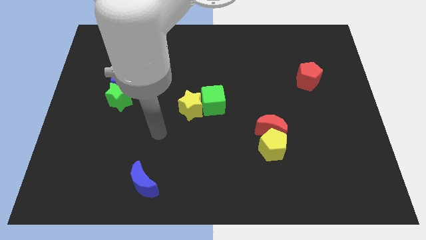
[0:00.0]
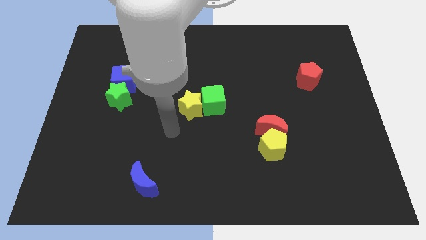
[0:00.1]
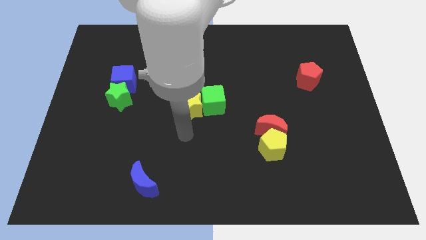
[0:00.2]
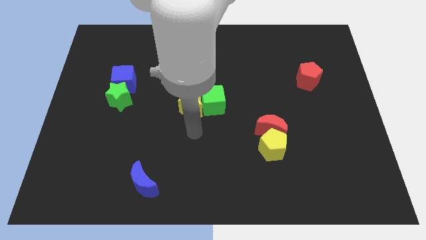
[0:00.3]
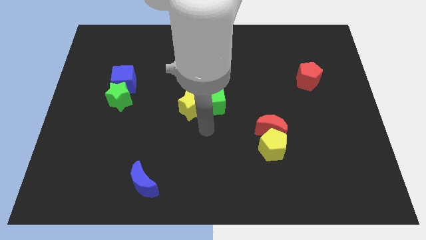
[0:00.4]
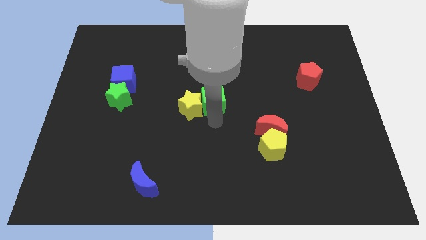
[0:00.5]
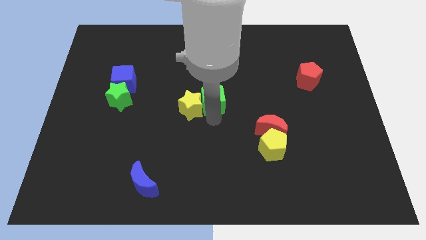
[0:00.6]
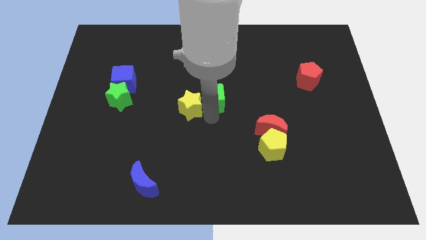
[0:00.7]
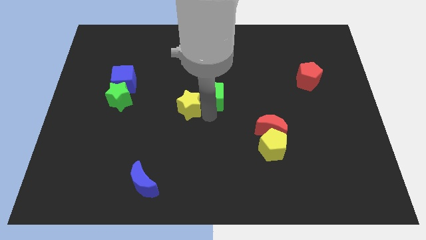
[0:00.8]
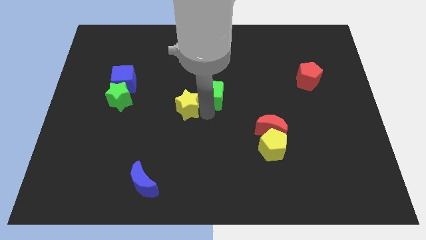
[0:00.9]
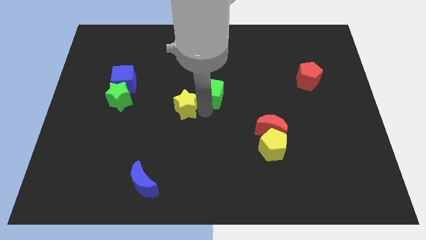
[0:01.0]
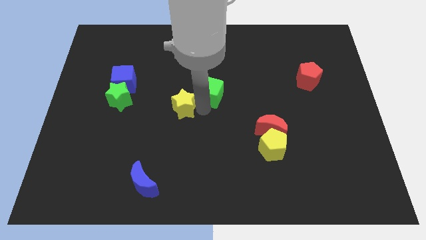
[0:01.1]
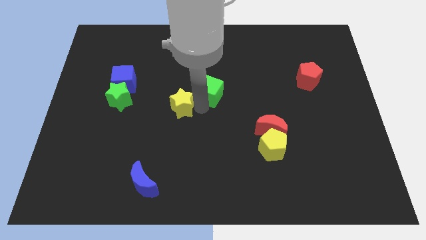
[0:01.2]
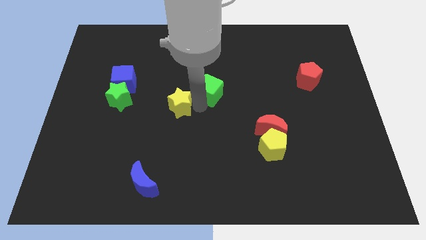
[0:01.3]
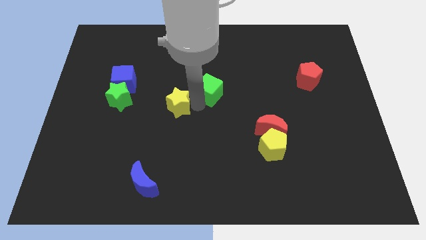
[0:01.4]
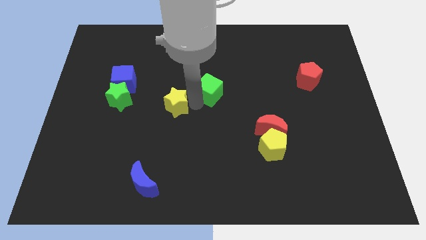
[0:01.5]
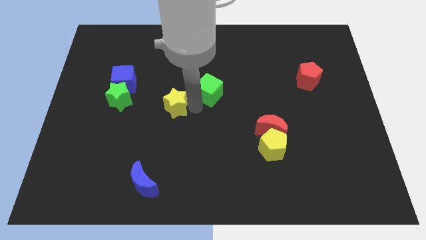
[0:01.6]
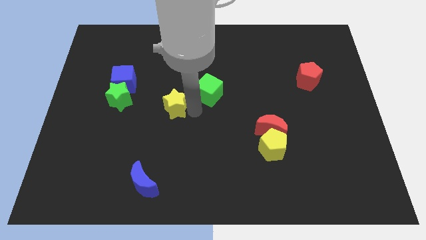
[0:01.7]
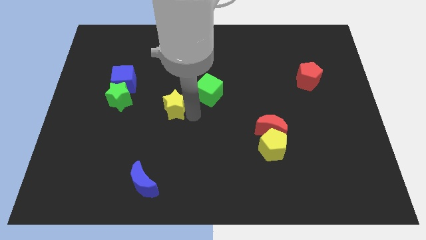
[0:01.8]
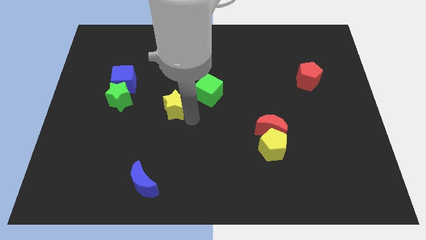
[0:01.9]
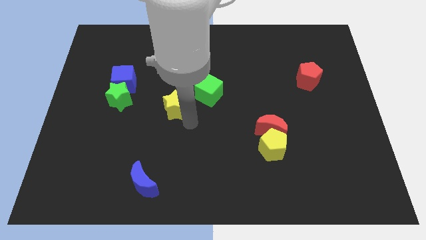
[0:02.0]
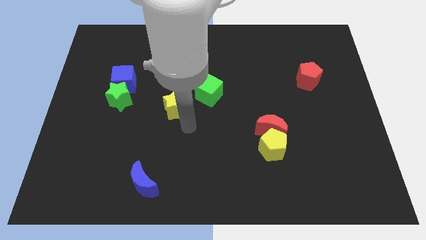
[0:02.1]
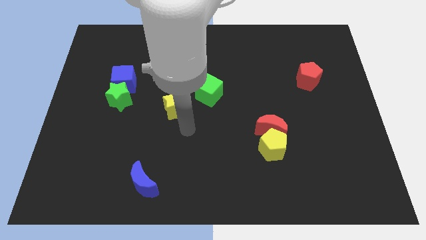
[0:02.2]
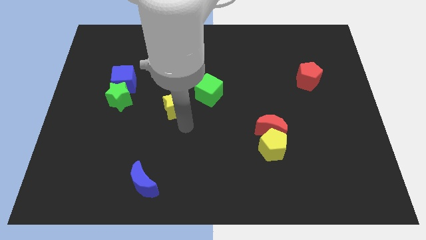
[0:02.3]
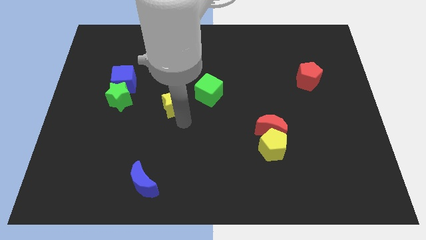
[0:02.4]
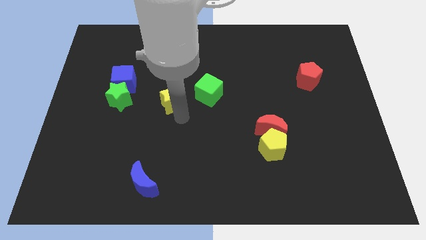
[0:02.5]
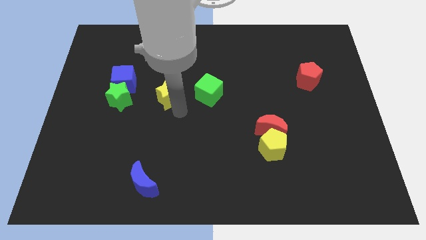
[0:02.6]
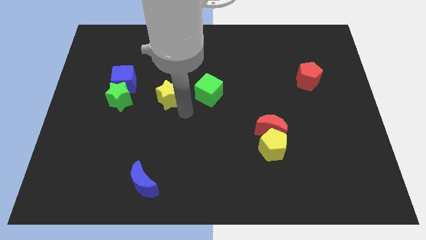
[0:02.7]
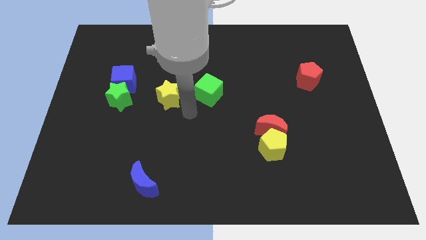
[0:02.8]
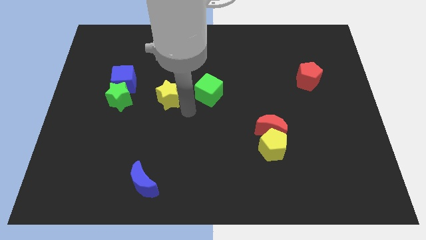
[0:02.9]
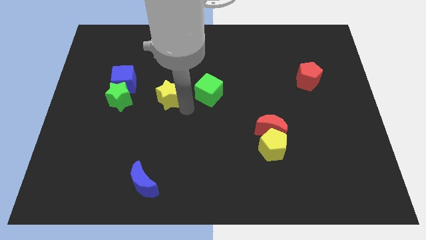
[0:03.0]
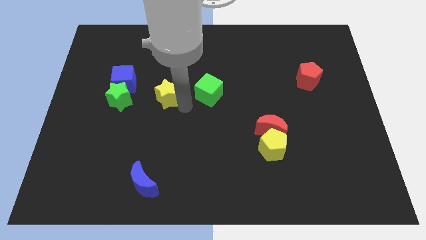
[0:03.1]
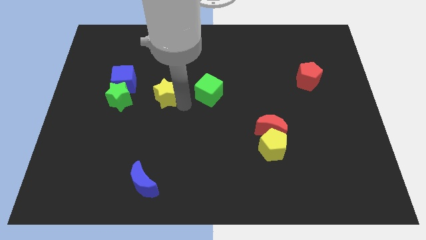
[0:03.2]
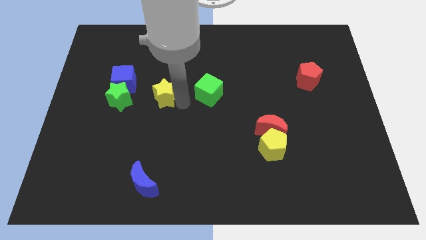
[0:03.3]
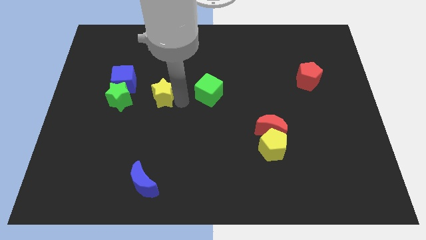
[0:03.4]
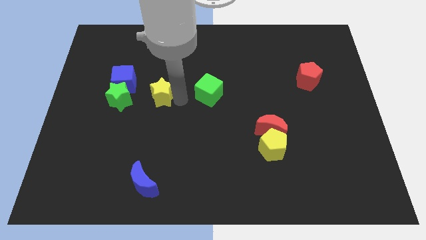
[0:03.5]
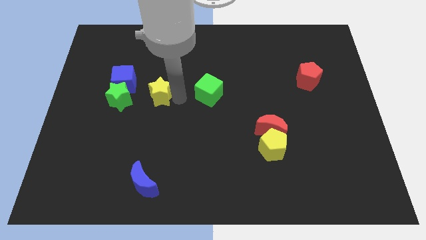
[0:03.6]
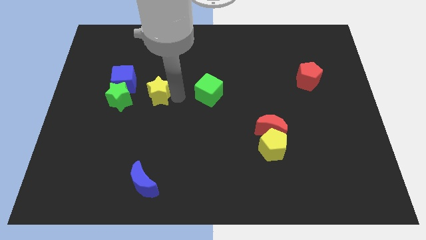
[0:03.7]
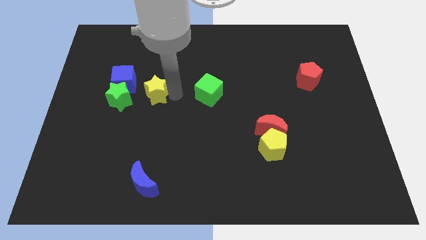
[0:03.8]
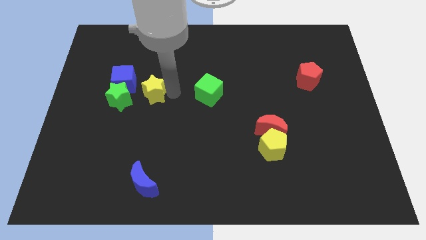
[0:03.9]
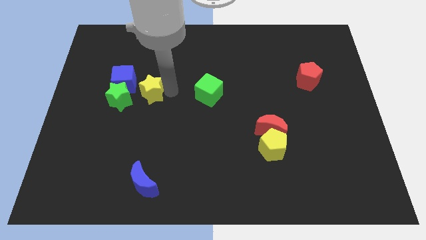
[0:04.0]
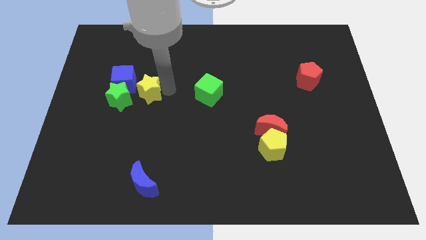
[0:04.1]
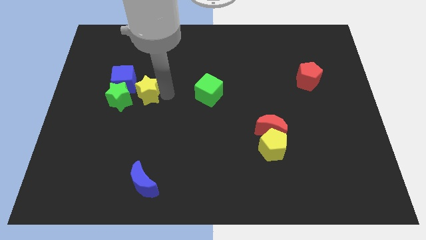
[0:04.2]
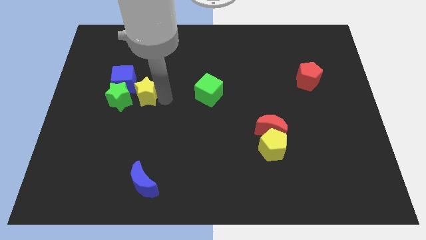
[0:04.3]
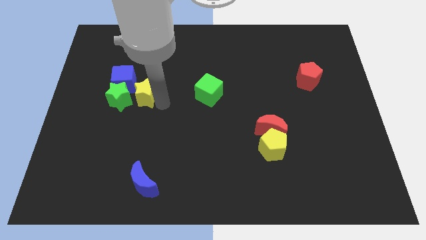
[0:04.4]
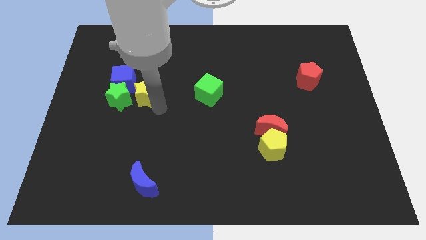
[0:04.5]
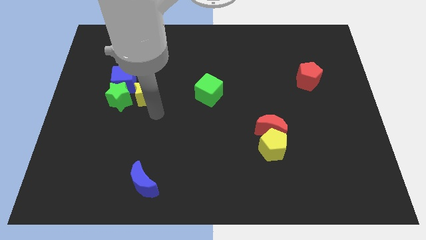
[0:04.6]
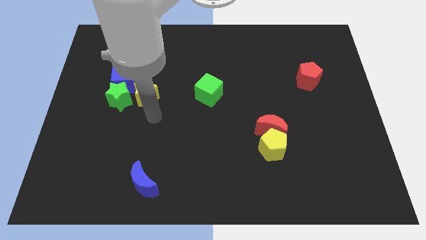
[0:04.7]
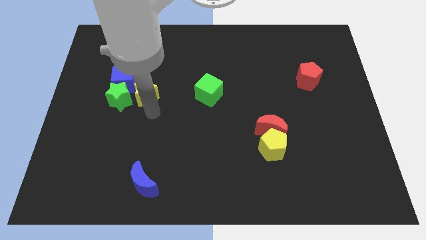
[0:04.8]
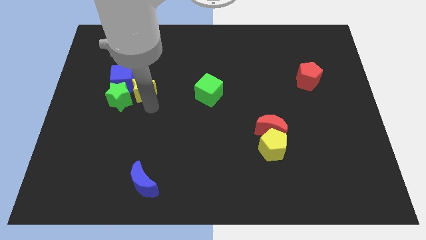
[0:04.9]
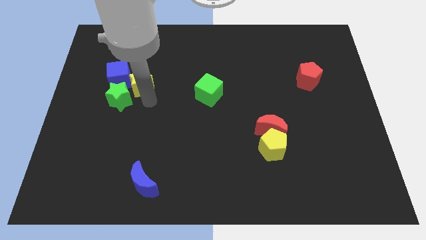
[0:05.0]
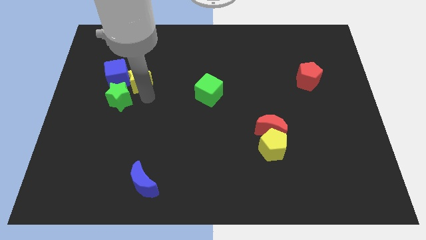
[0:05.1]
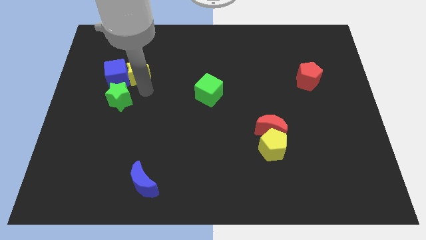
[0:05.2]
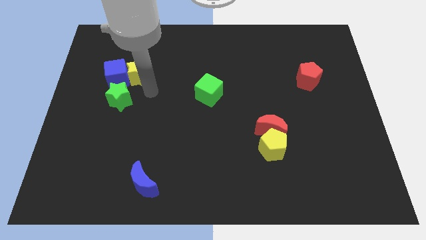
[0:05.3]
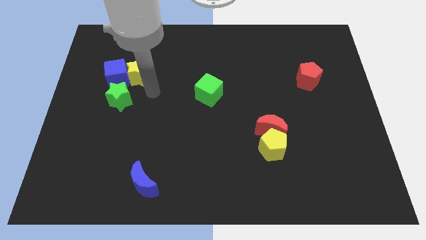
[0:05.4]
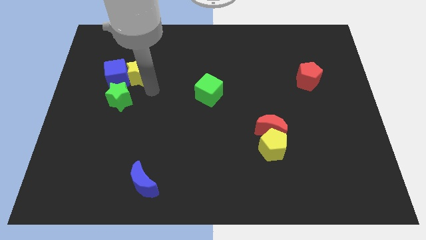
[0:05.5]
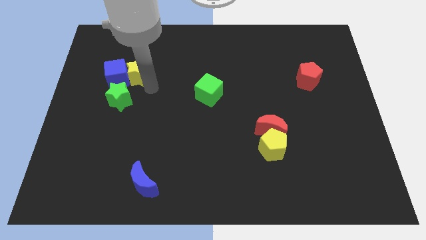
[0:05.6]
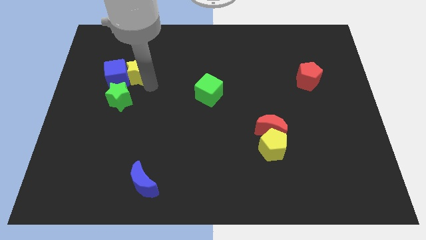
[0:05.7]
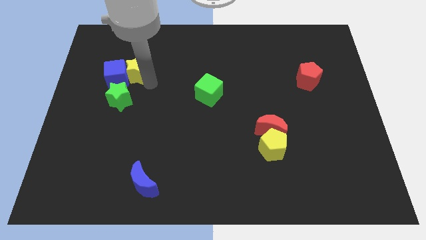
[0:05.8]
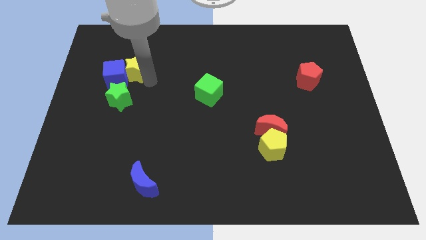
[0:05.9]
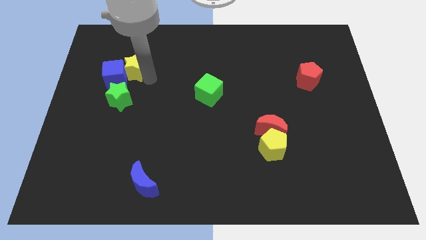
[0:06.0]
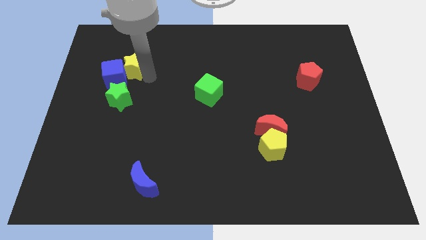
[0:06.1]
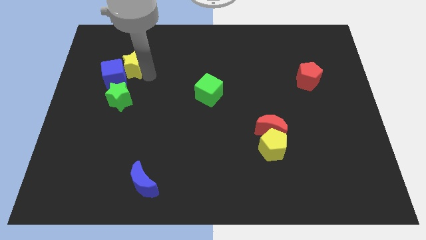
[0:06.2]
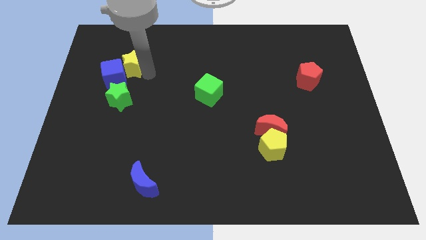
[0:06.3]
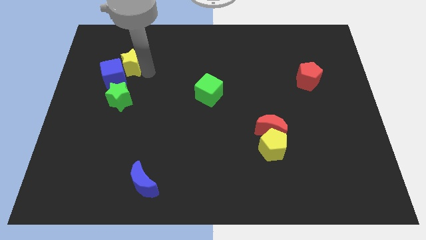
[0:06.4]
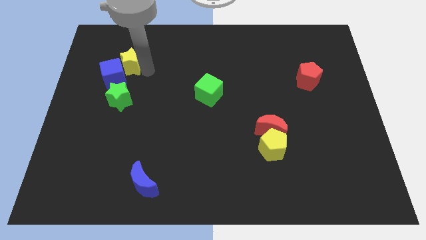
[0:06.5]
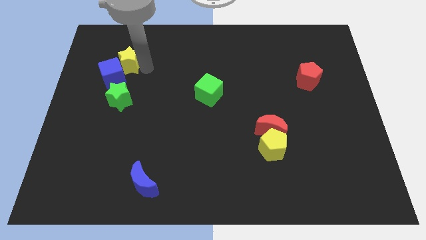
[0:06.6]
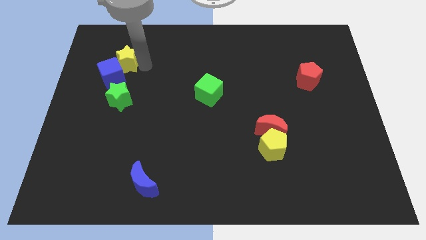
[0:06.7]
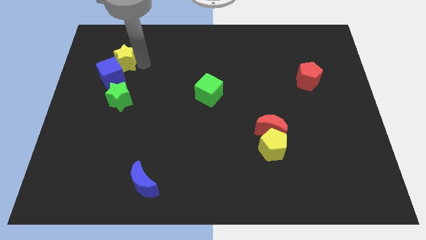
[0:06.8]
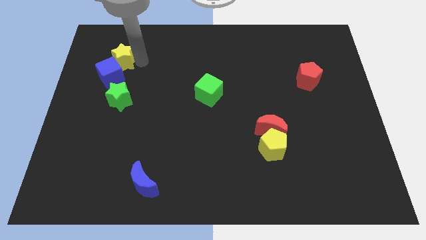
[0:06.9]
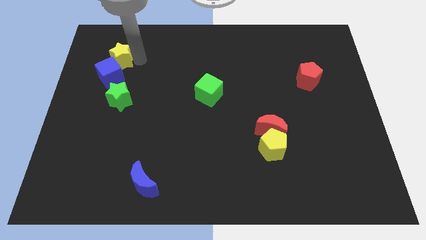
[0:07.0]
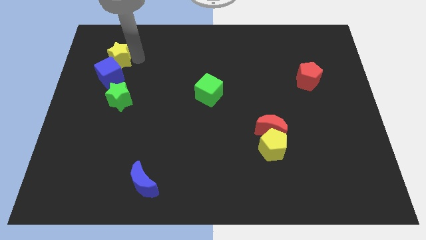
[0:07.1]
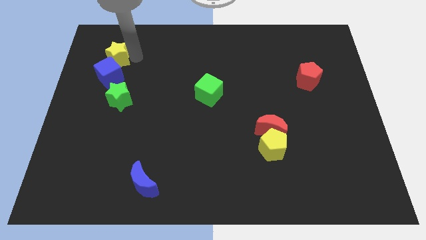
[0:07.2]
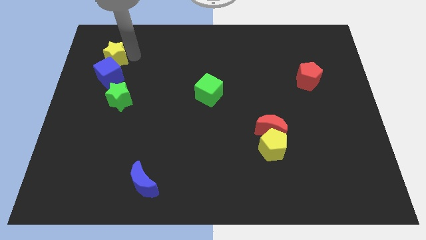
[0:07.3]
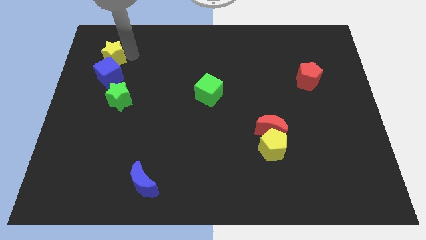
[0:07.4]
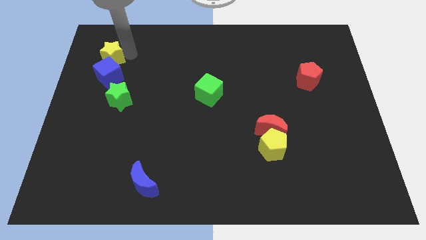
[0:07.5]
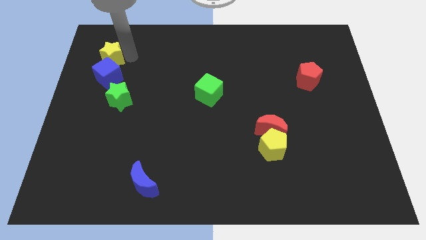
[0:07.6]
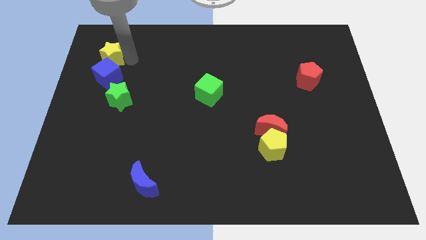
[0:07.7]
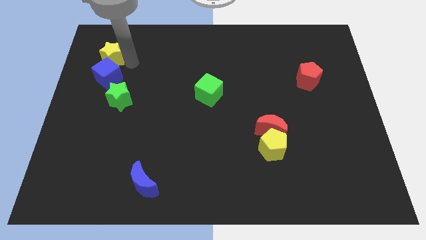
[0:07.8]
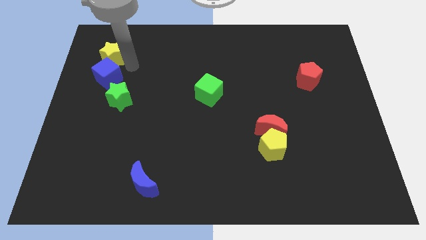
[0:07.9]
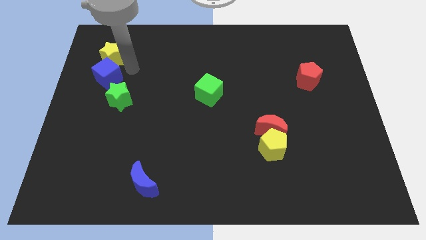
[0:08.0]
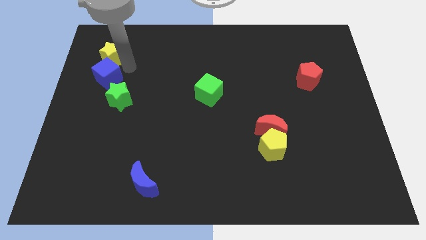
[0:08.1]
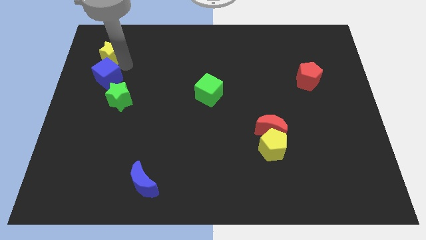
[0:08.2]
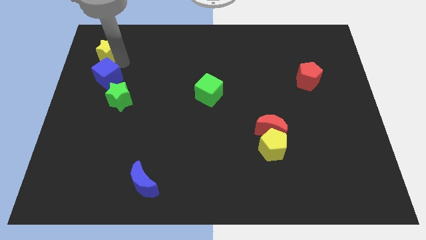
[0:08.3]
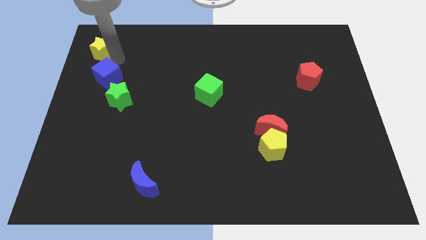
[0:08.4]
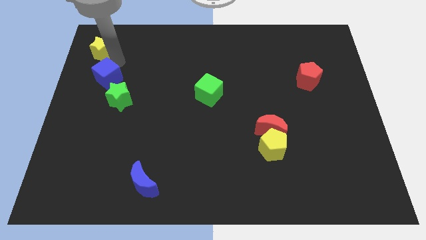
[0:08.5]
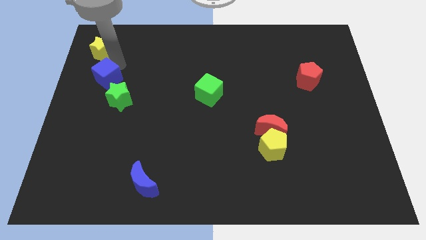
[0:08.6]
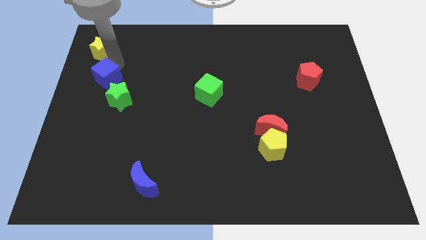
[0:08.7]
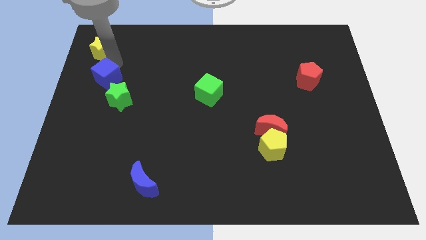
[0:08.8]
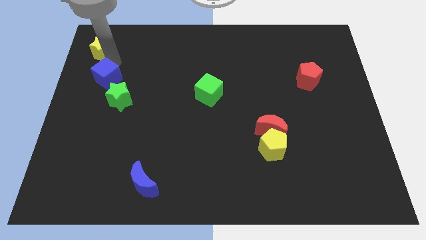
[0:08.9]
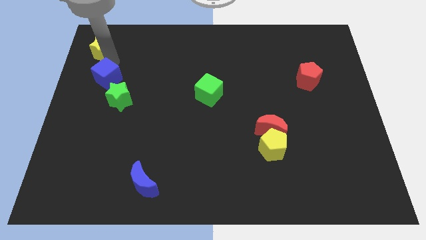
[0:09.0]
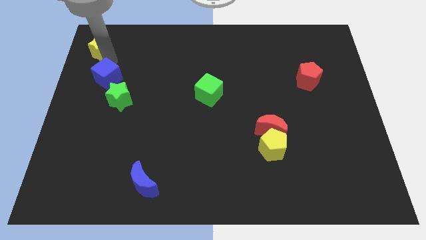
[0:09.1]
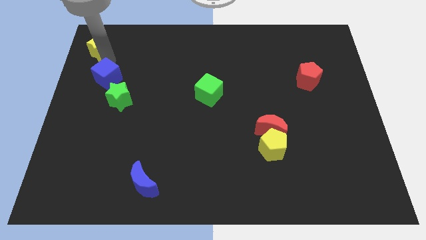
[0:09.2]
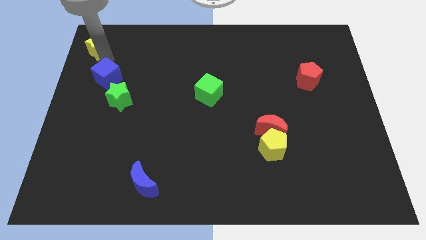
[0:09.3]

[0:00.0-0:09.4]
slide the yellow star to the top left
